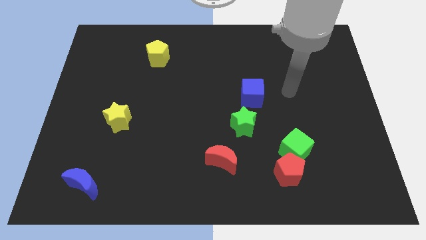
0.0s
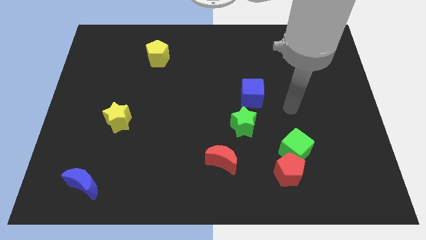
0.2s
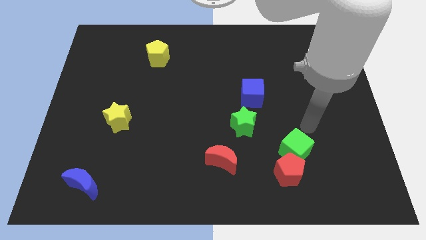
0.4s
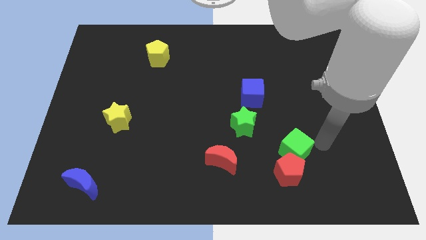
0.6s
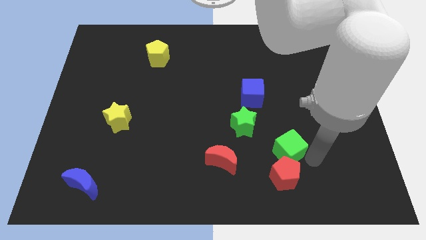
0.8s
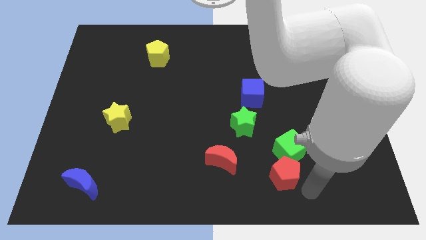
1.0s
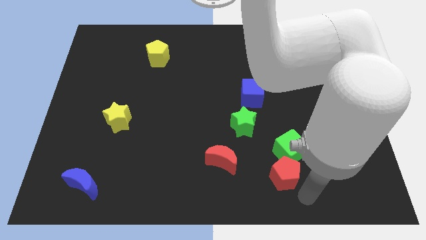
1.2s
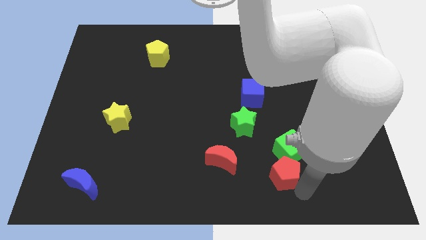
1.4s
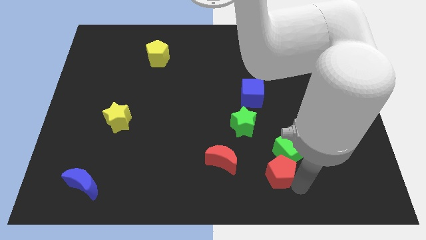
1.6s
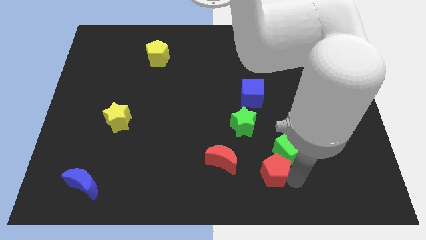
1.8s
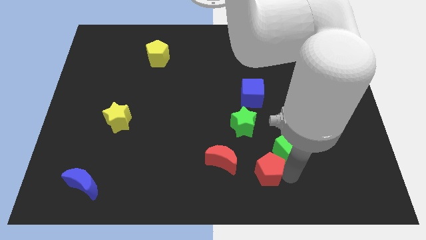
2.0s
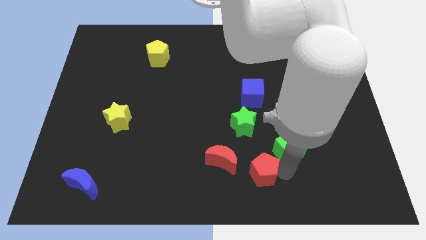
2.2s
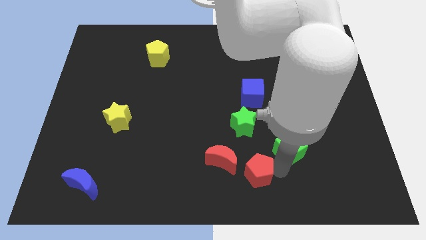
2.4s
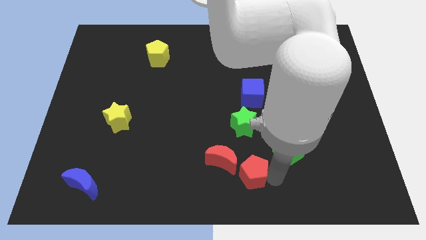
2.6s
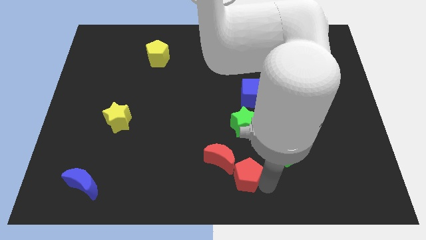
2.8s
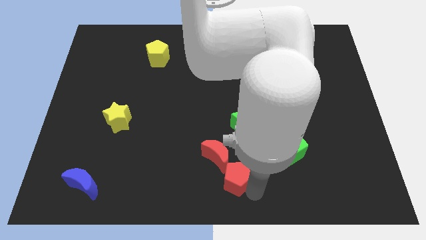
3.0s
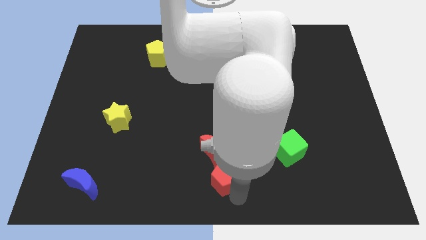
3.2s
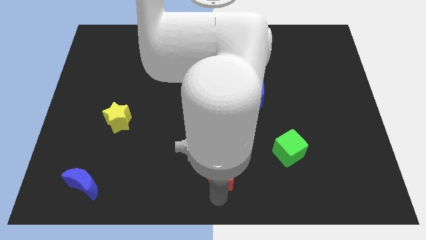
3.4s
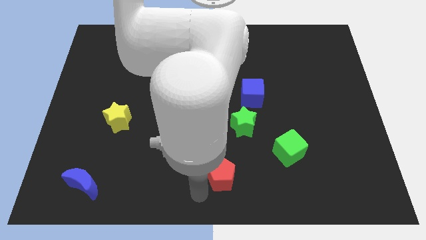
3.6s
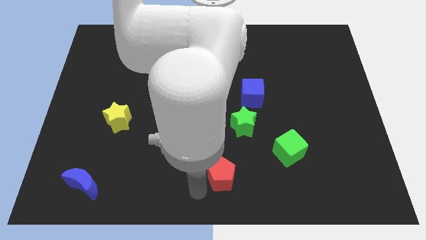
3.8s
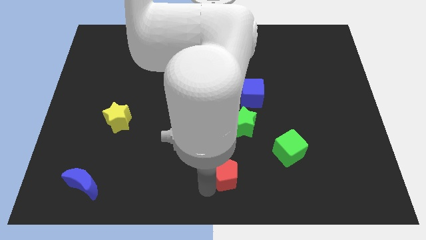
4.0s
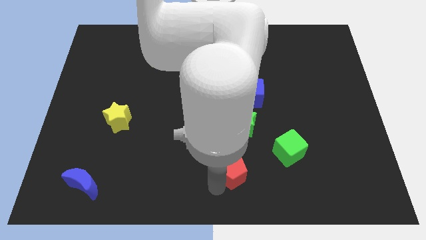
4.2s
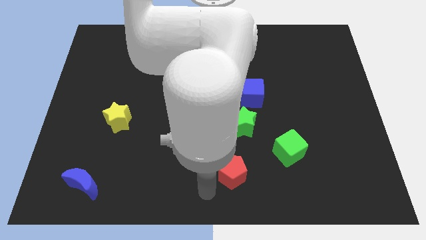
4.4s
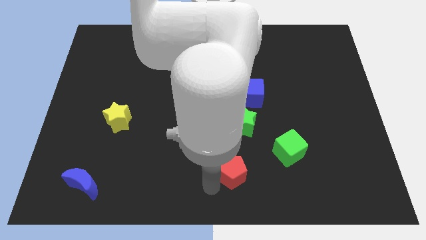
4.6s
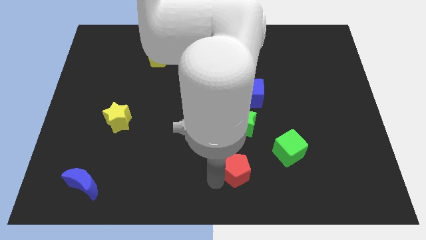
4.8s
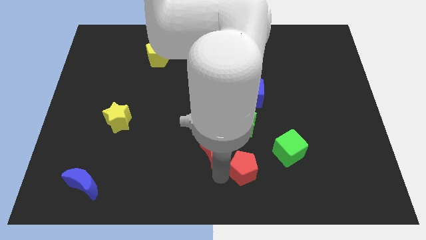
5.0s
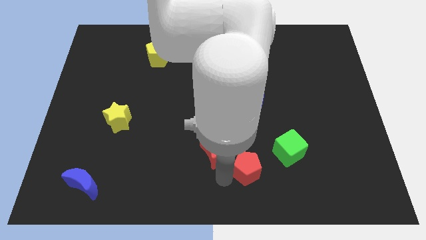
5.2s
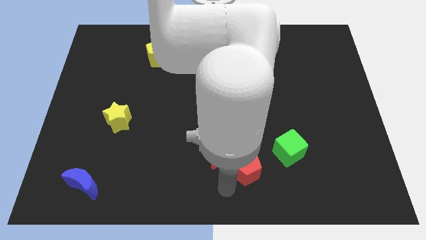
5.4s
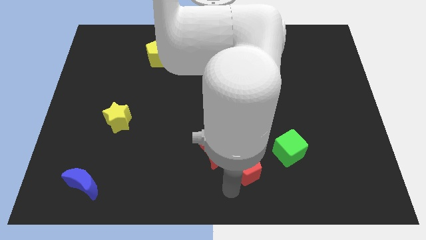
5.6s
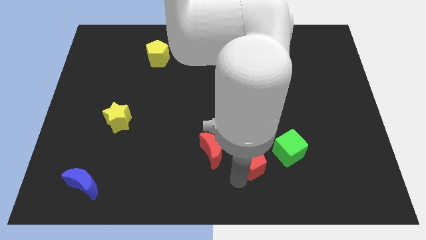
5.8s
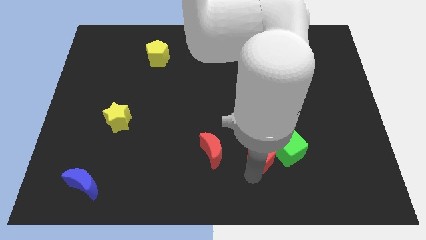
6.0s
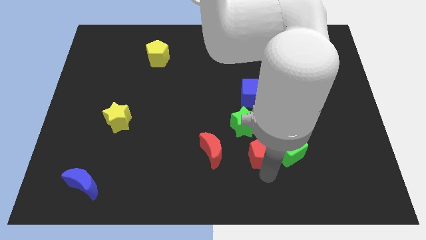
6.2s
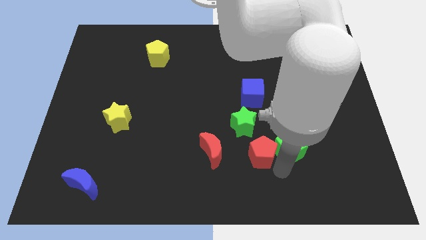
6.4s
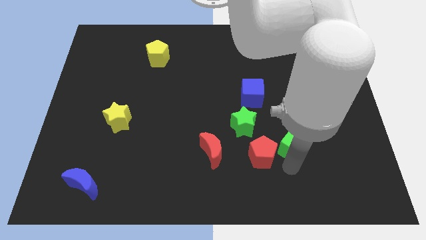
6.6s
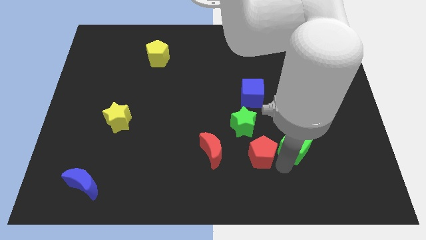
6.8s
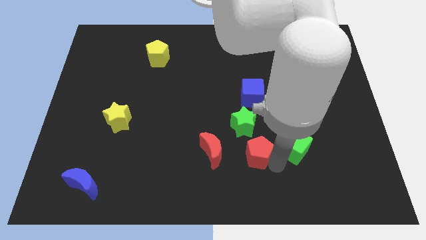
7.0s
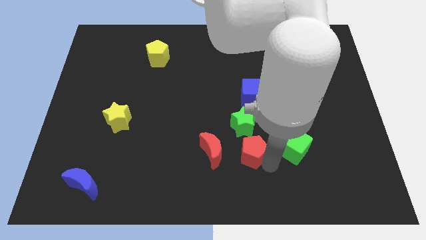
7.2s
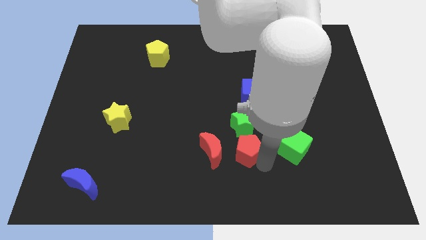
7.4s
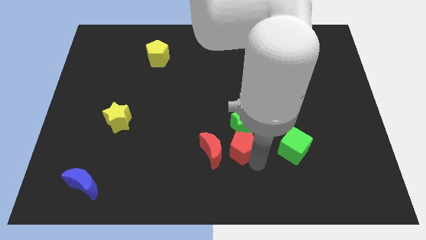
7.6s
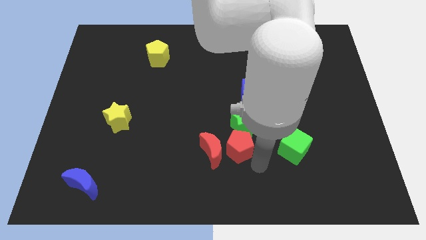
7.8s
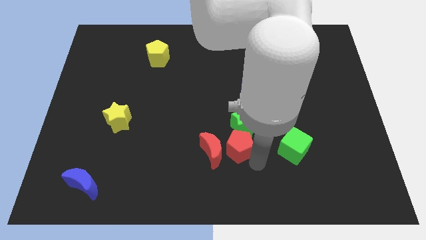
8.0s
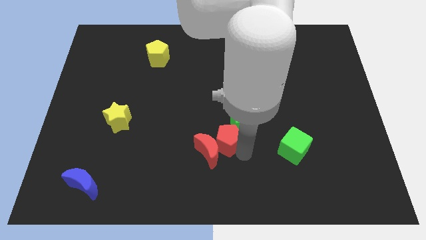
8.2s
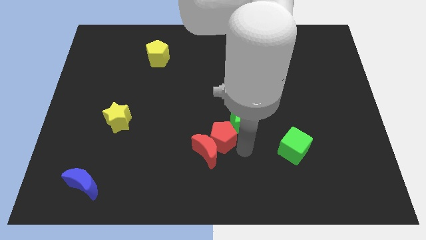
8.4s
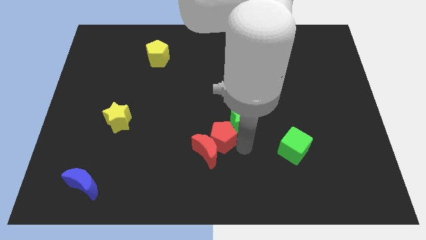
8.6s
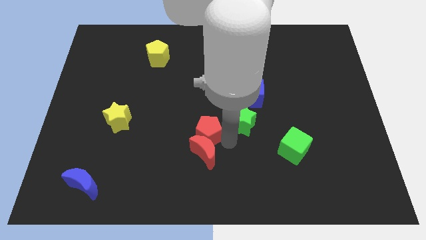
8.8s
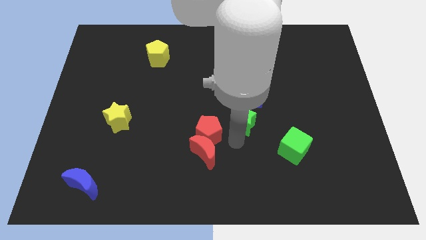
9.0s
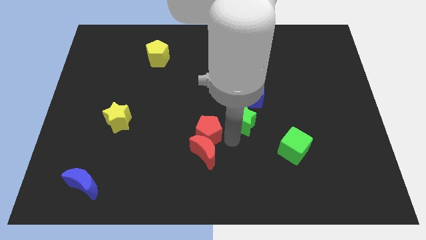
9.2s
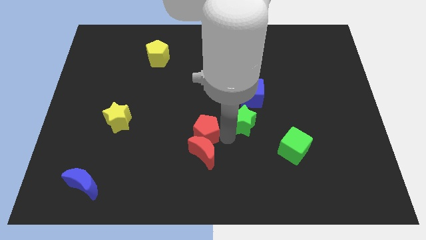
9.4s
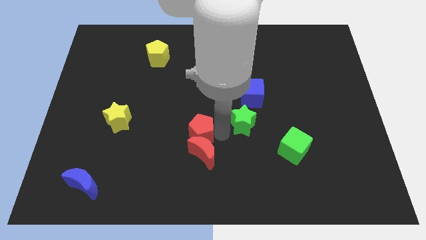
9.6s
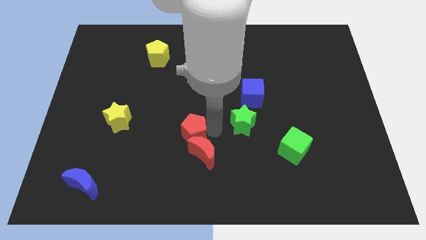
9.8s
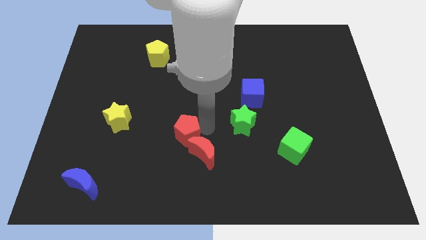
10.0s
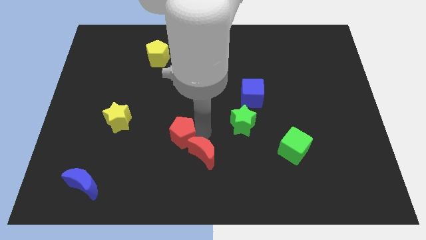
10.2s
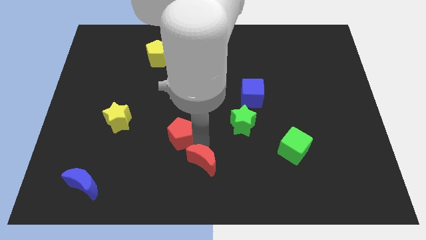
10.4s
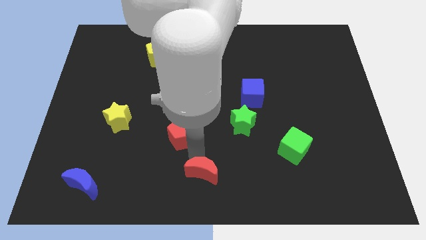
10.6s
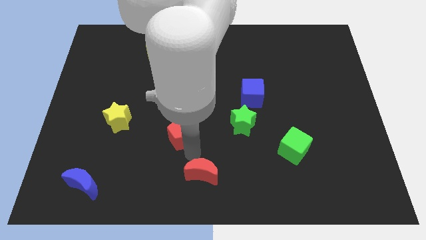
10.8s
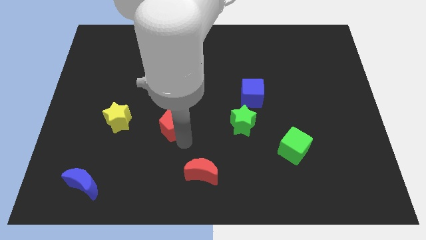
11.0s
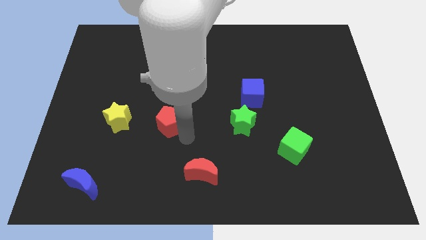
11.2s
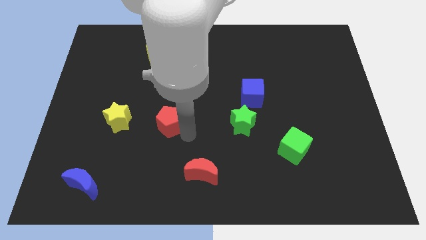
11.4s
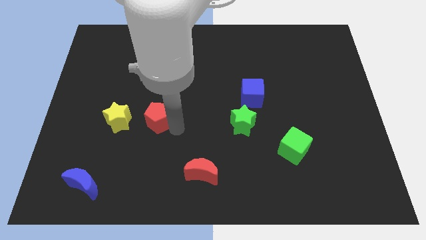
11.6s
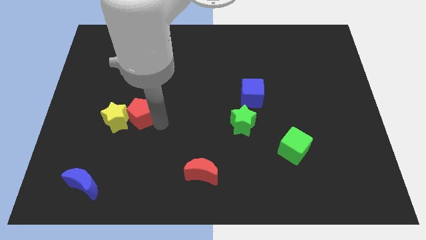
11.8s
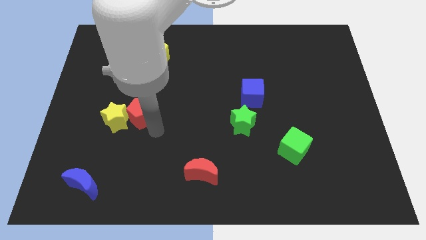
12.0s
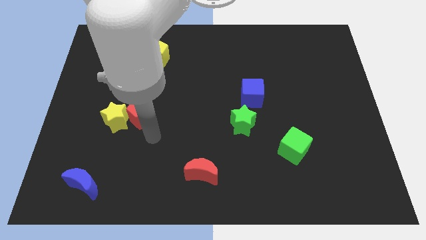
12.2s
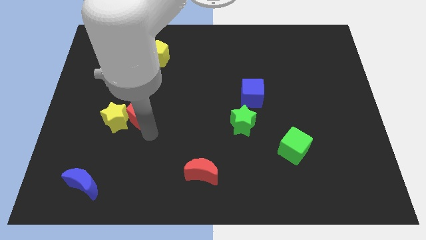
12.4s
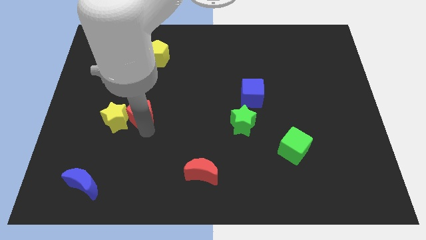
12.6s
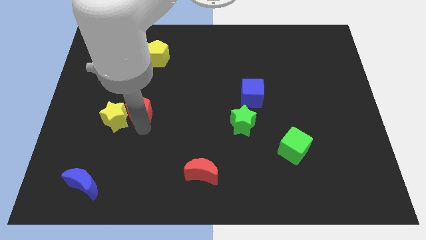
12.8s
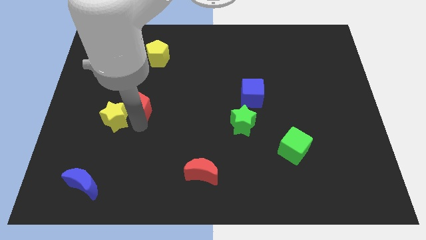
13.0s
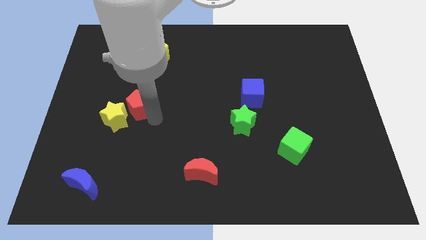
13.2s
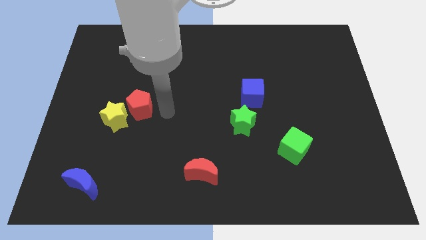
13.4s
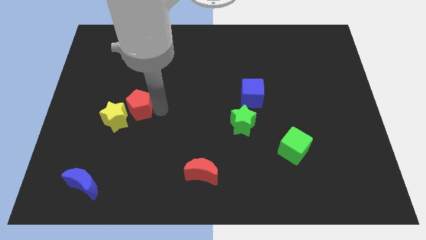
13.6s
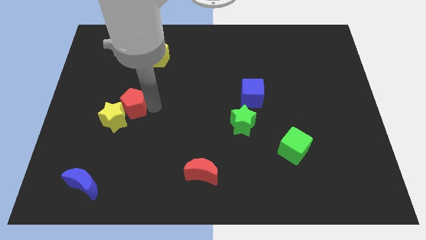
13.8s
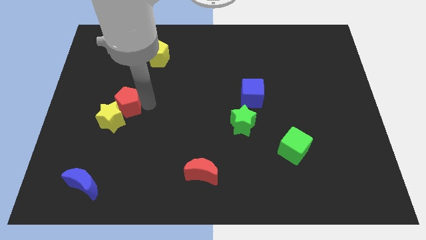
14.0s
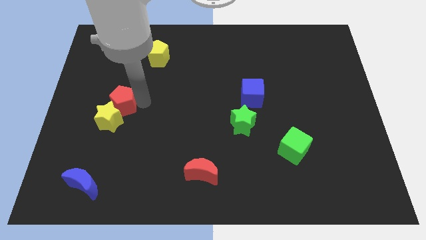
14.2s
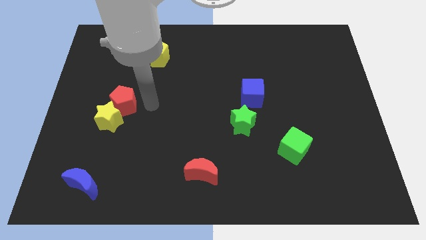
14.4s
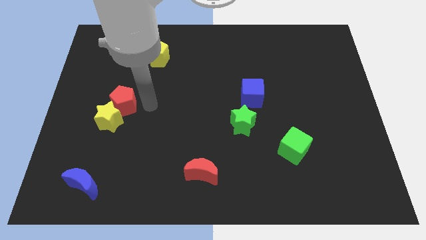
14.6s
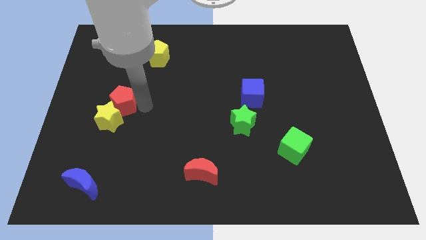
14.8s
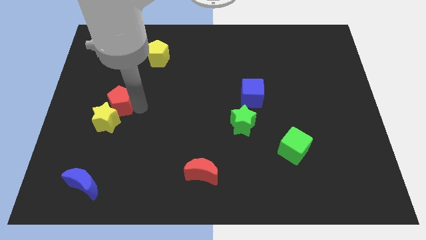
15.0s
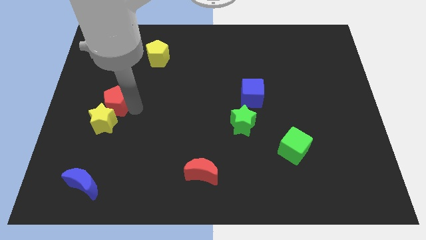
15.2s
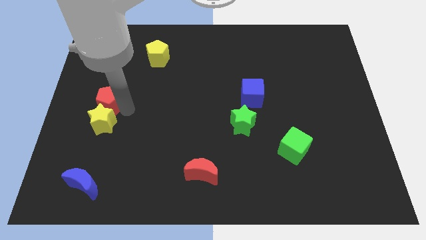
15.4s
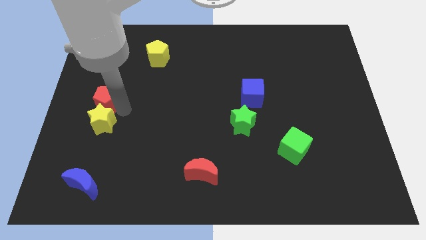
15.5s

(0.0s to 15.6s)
move the red pentagon to the left side

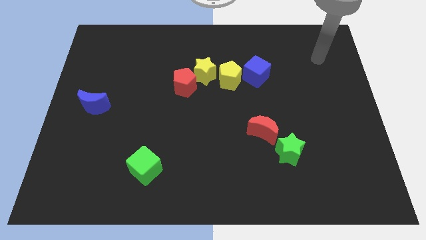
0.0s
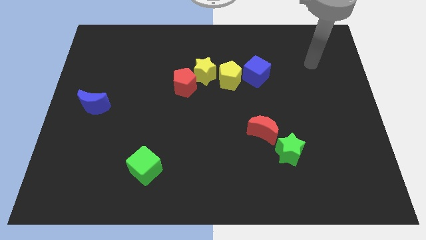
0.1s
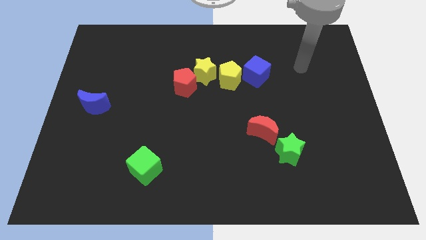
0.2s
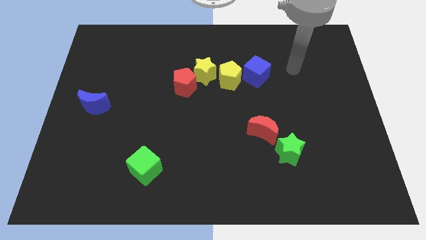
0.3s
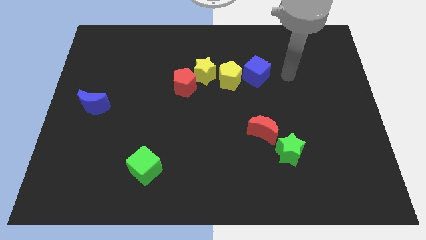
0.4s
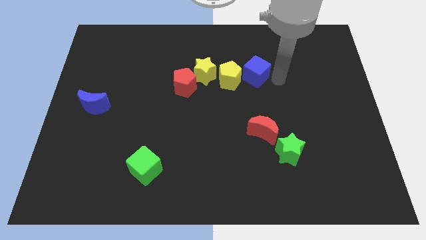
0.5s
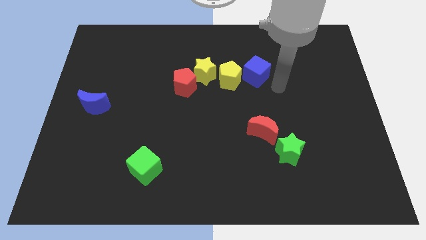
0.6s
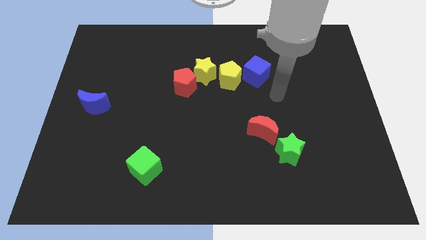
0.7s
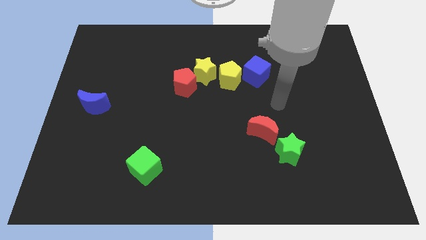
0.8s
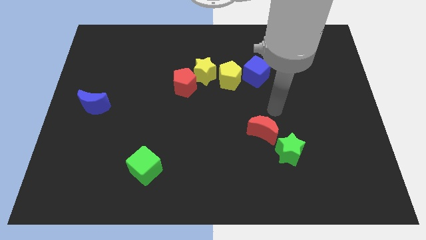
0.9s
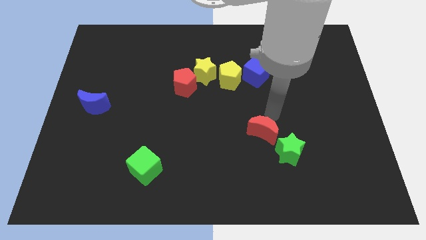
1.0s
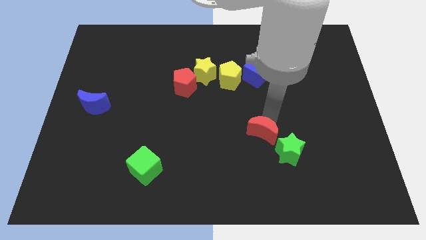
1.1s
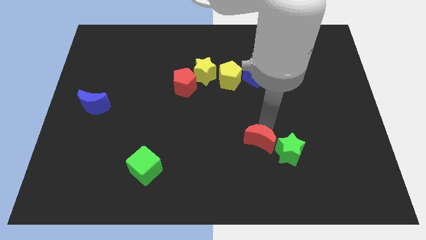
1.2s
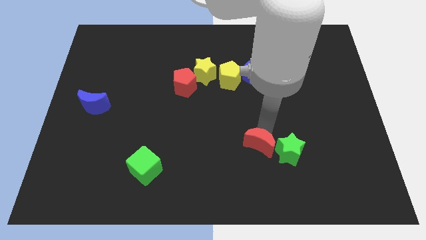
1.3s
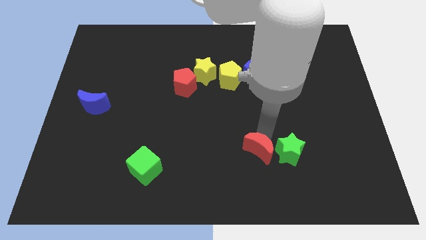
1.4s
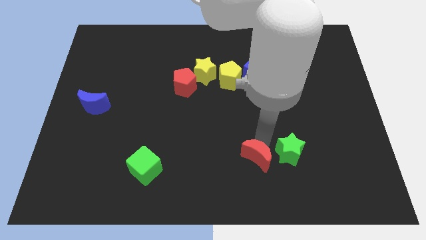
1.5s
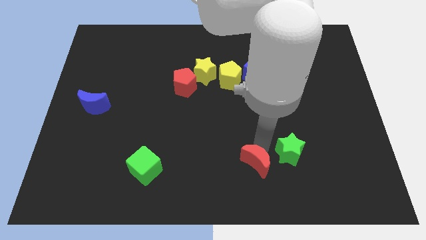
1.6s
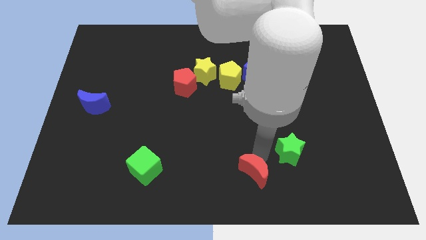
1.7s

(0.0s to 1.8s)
put the red moon to the bottom
